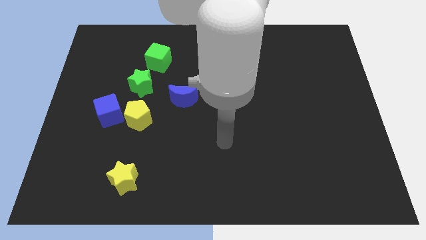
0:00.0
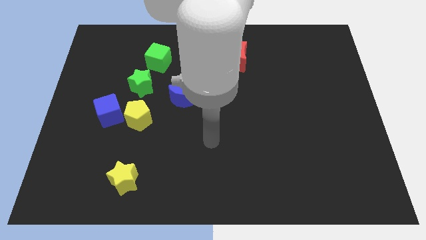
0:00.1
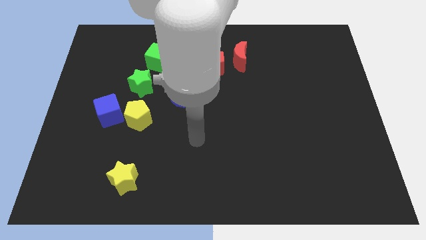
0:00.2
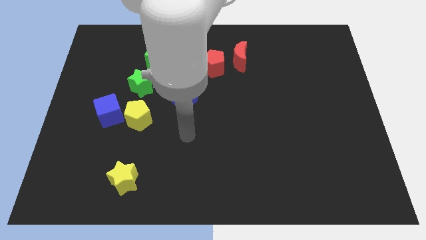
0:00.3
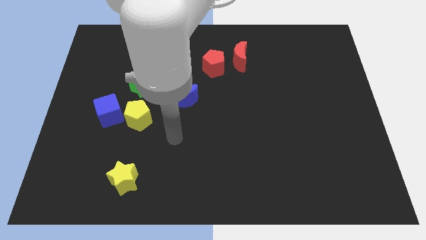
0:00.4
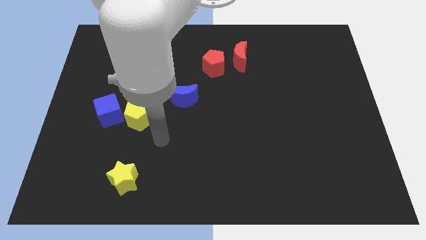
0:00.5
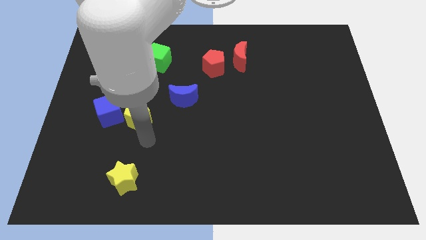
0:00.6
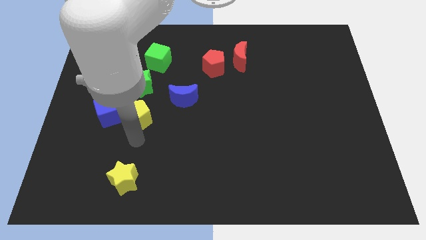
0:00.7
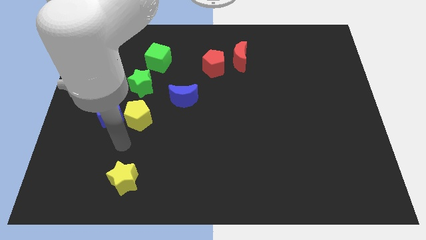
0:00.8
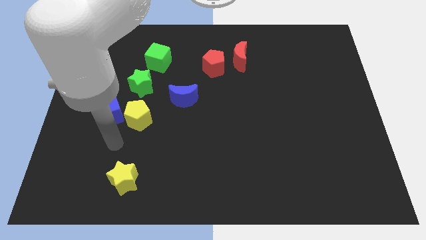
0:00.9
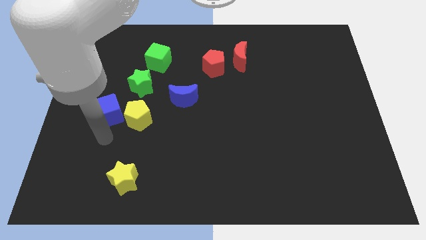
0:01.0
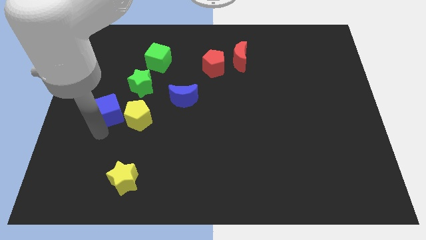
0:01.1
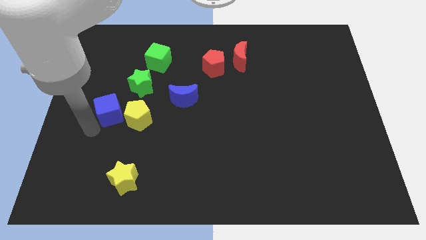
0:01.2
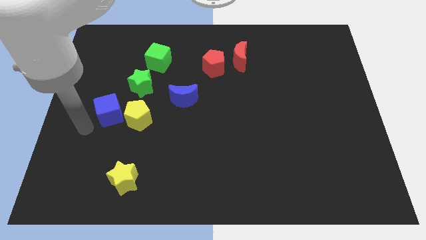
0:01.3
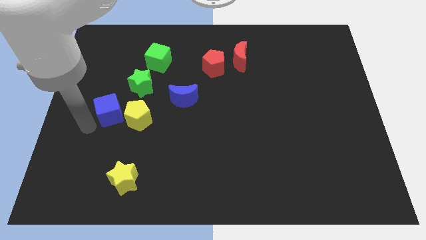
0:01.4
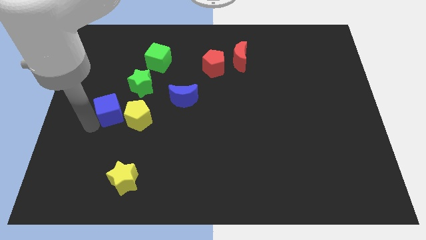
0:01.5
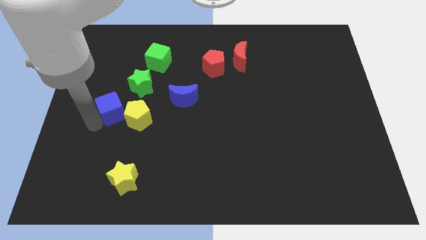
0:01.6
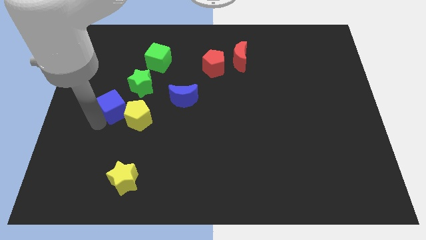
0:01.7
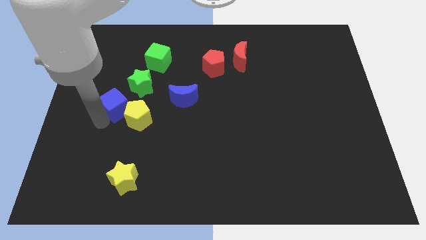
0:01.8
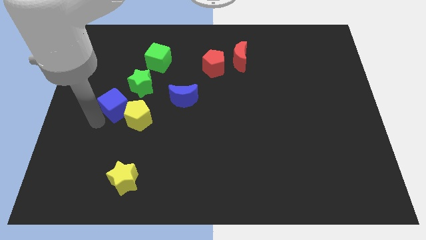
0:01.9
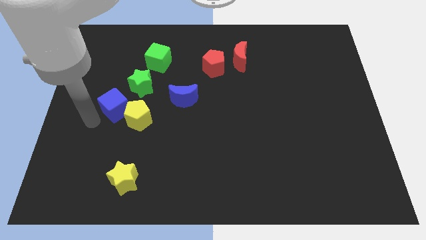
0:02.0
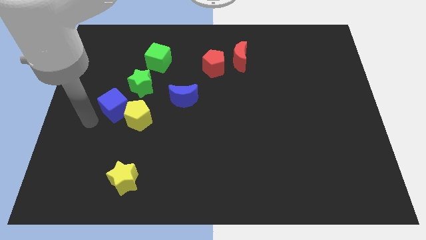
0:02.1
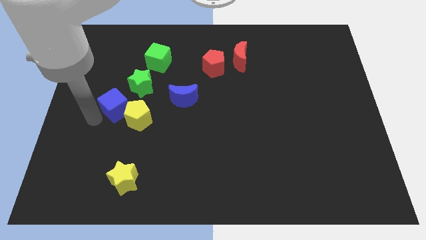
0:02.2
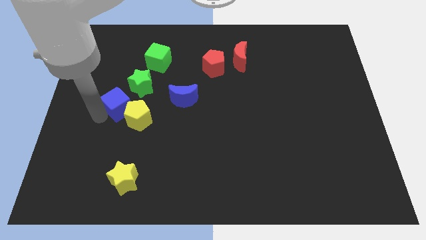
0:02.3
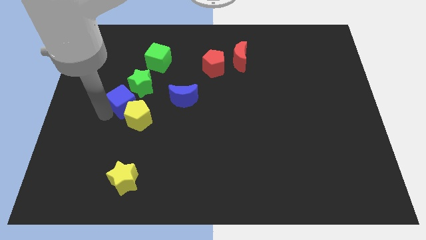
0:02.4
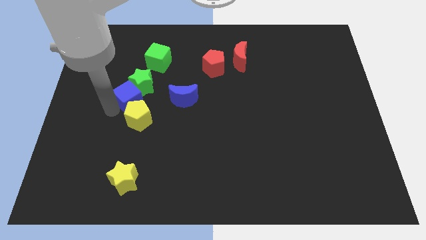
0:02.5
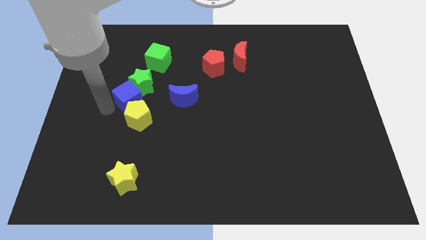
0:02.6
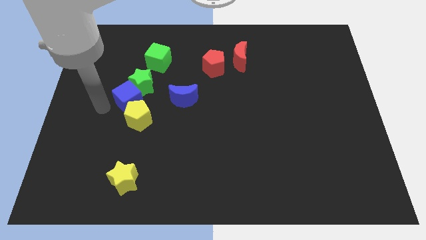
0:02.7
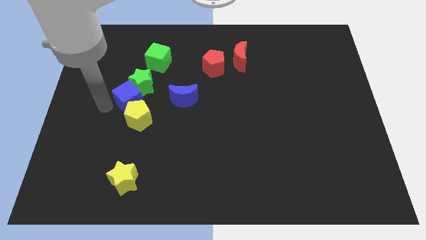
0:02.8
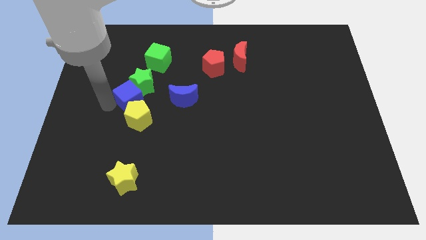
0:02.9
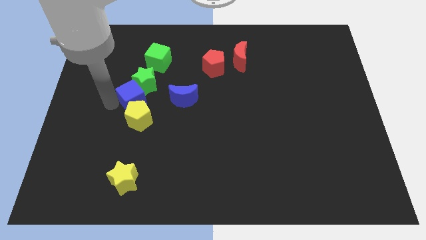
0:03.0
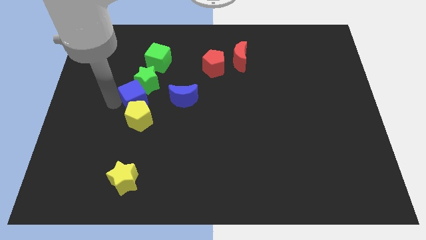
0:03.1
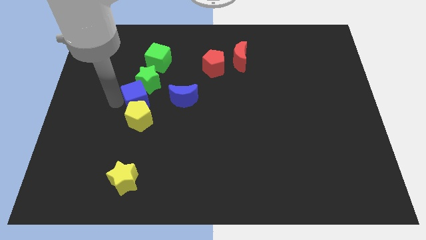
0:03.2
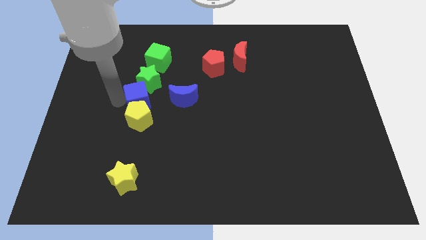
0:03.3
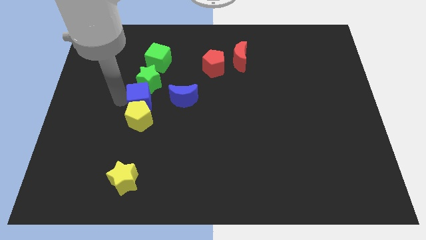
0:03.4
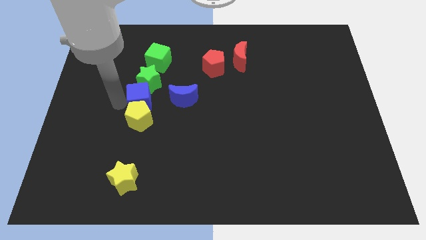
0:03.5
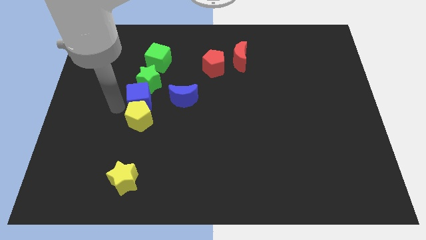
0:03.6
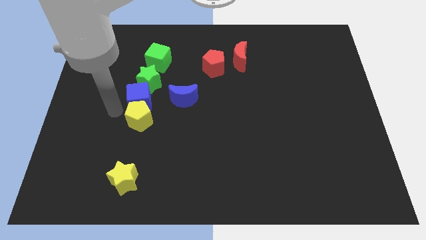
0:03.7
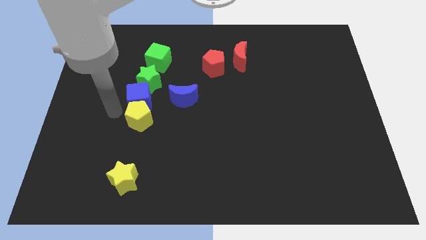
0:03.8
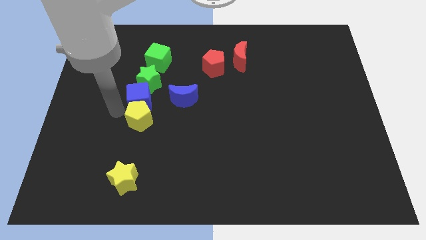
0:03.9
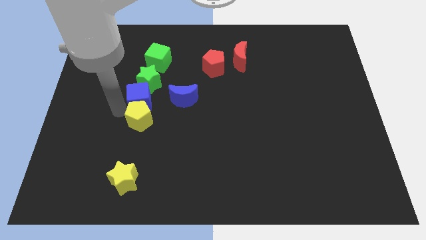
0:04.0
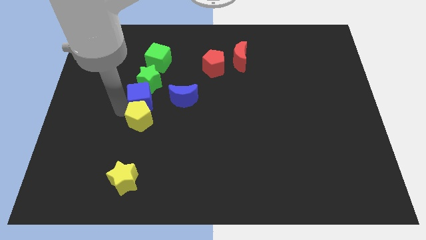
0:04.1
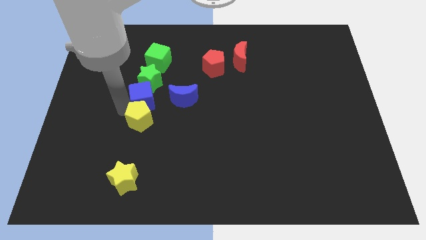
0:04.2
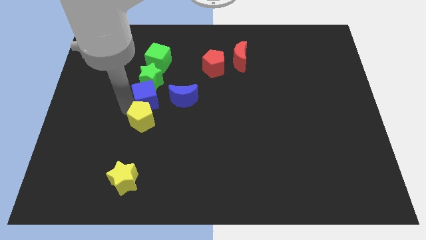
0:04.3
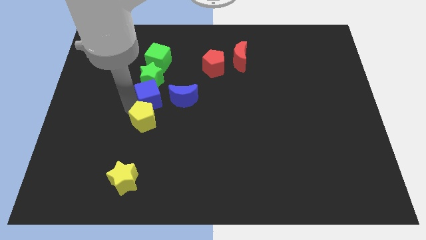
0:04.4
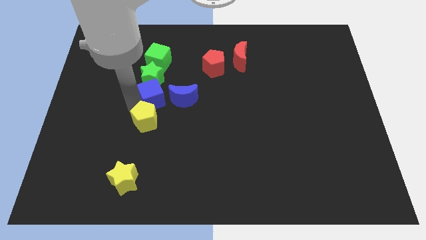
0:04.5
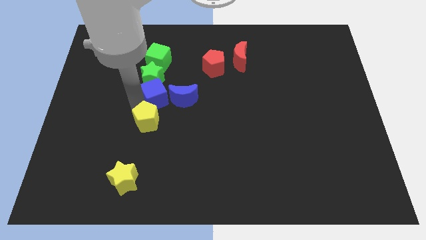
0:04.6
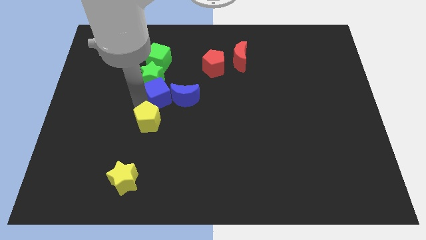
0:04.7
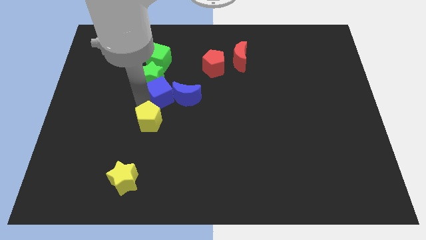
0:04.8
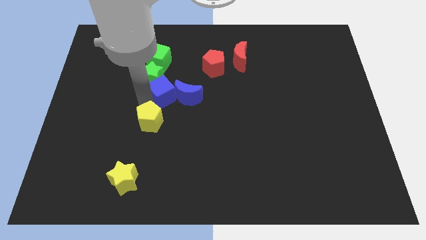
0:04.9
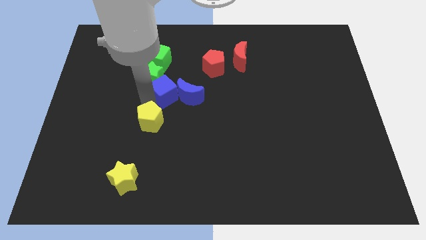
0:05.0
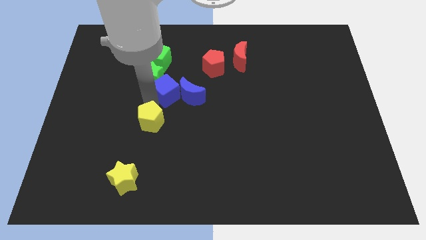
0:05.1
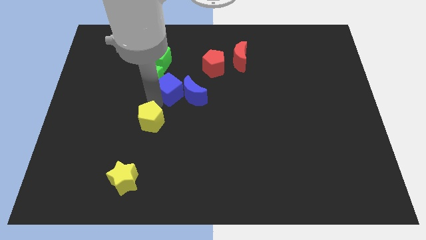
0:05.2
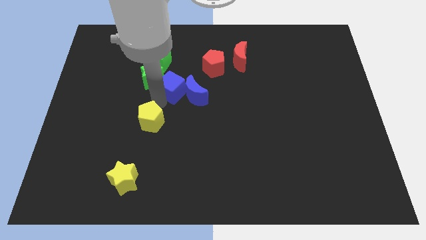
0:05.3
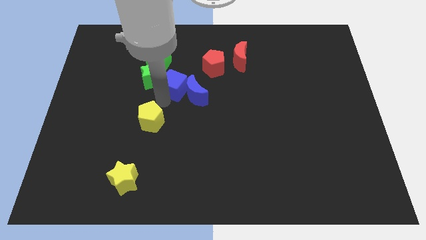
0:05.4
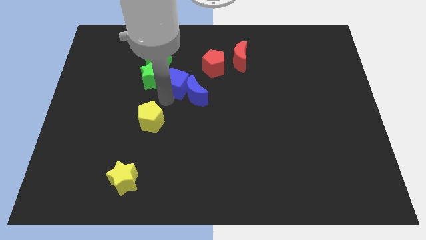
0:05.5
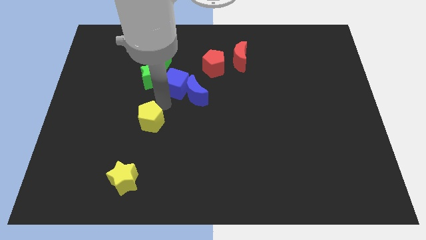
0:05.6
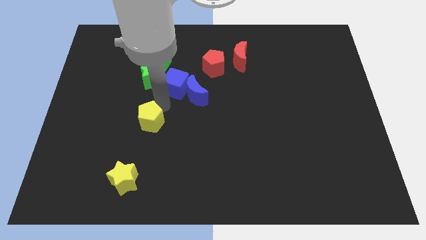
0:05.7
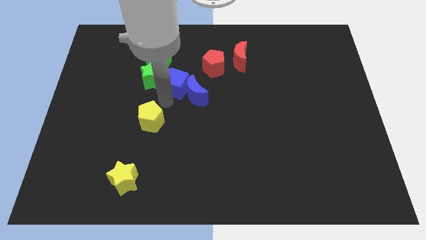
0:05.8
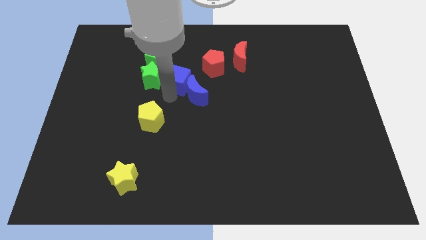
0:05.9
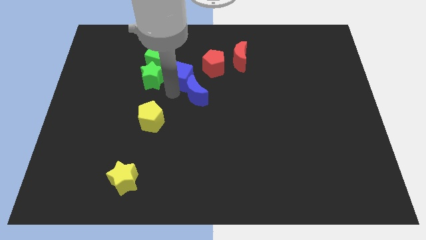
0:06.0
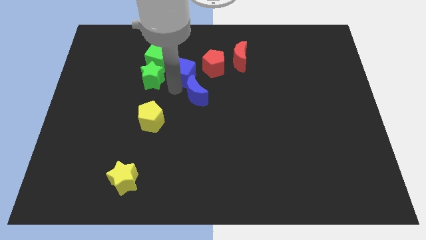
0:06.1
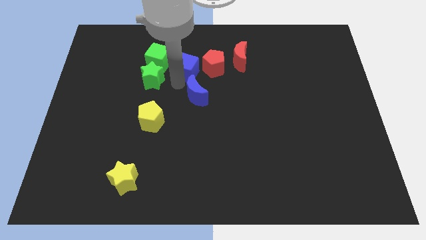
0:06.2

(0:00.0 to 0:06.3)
move the blue cube just left of the red moon
